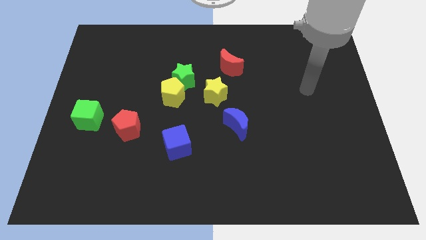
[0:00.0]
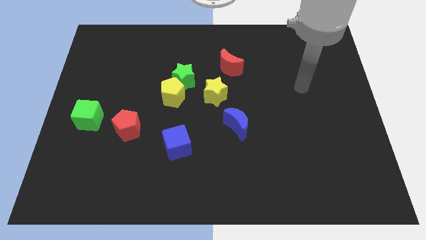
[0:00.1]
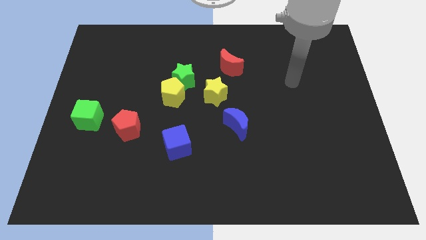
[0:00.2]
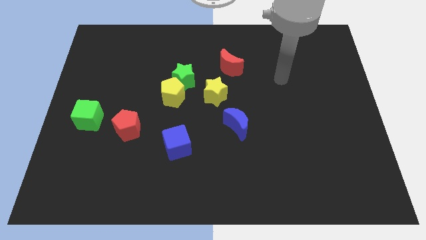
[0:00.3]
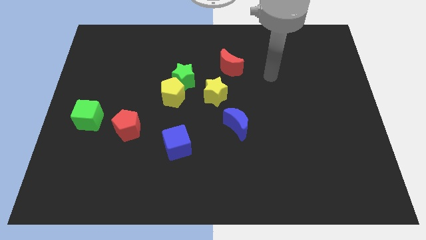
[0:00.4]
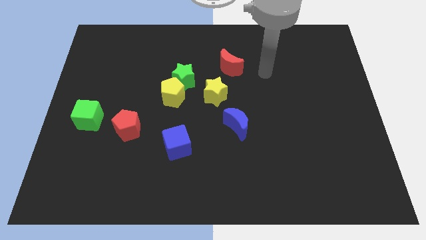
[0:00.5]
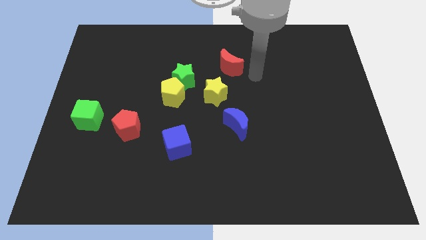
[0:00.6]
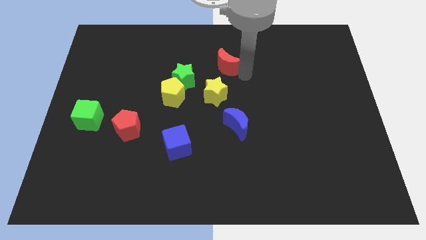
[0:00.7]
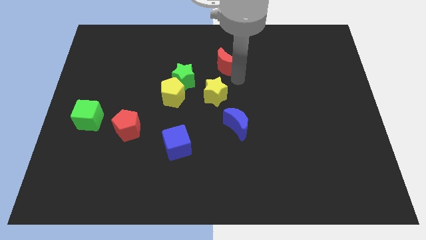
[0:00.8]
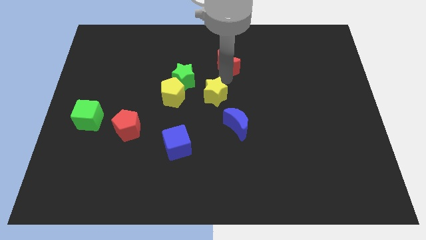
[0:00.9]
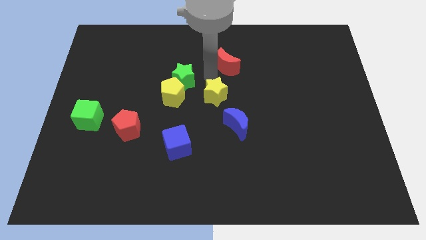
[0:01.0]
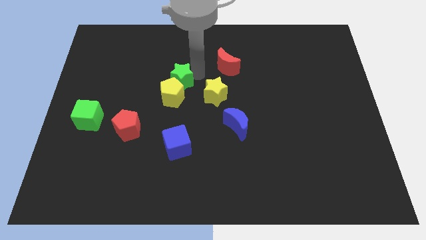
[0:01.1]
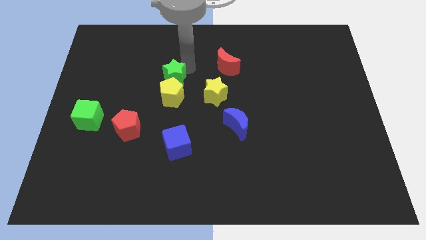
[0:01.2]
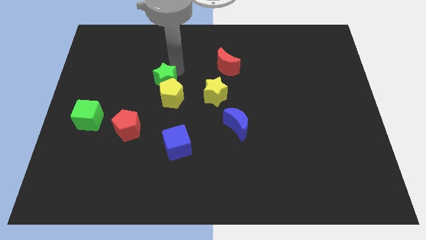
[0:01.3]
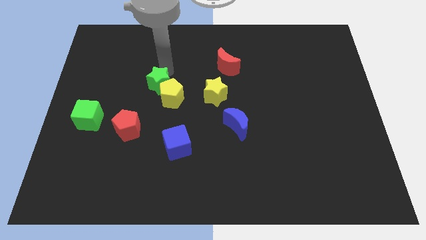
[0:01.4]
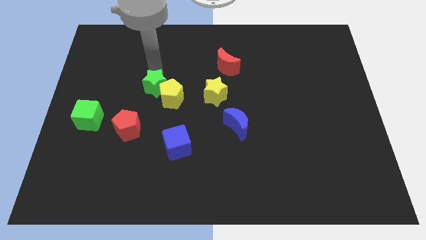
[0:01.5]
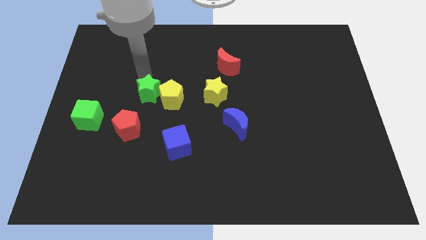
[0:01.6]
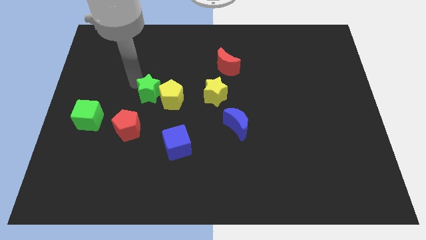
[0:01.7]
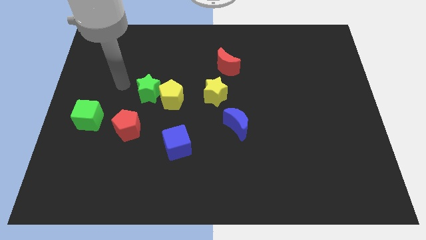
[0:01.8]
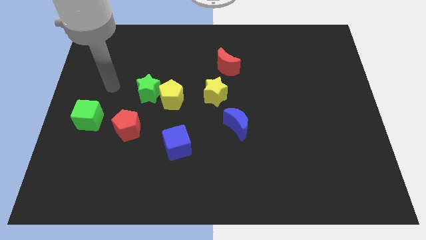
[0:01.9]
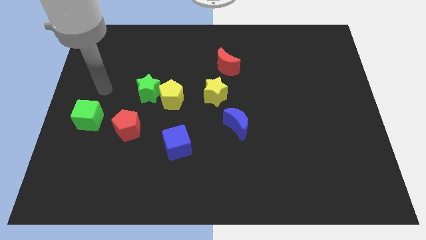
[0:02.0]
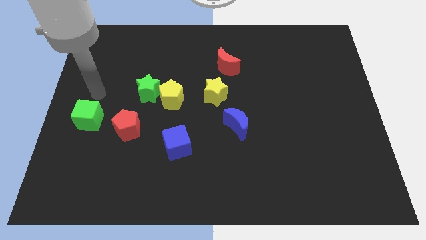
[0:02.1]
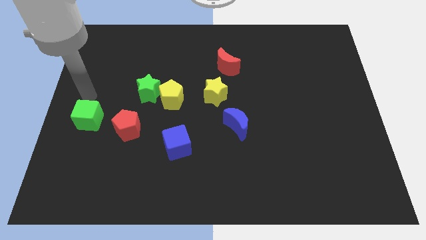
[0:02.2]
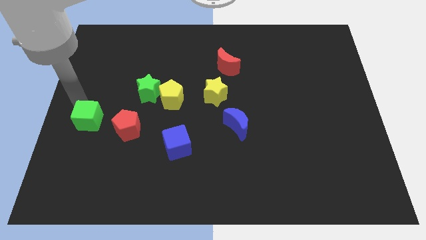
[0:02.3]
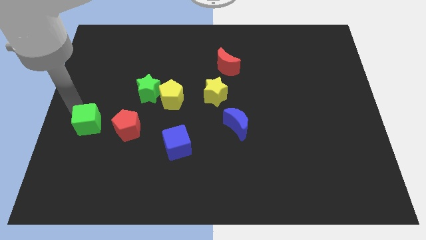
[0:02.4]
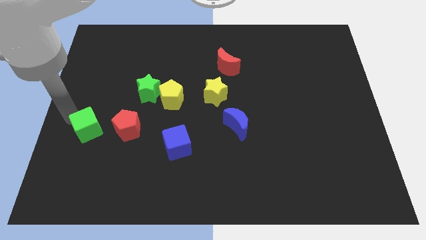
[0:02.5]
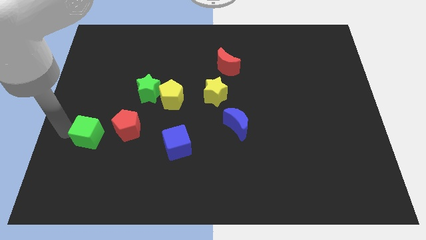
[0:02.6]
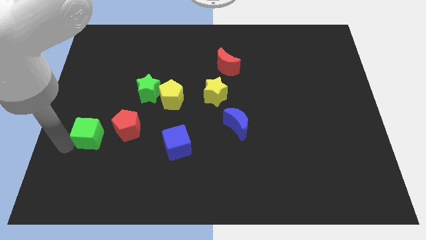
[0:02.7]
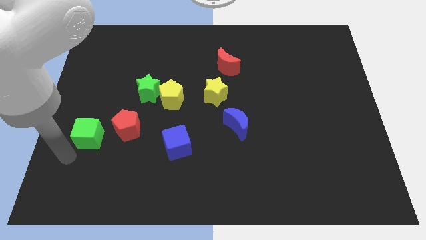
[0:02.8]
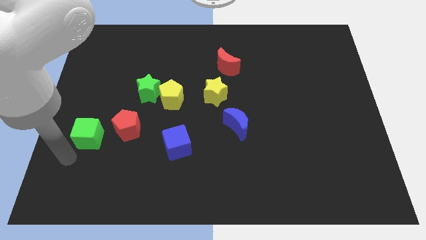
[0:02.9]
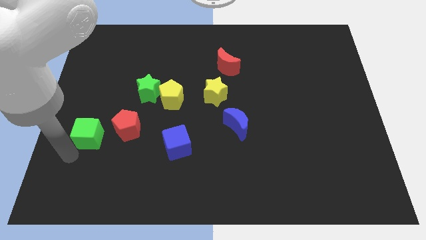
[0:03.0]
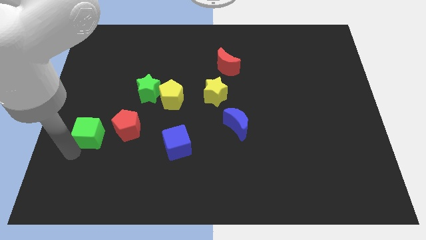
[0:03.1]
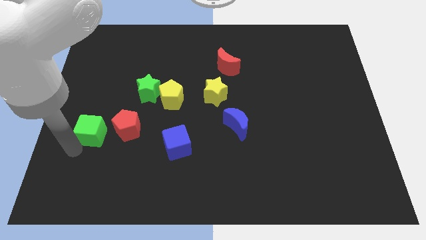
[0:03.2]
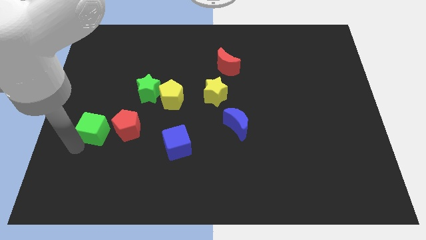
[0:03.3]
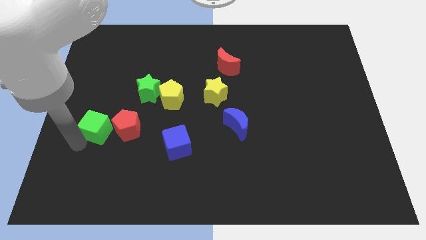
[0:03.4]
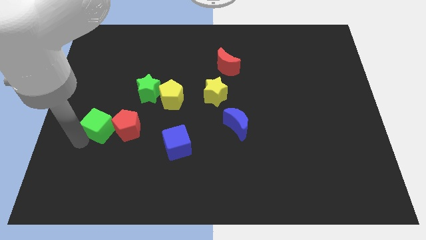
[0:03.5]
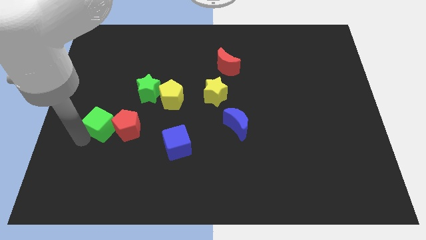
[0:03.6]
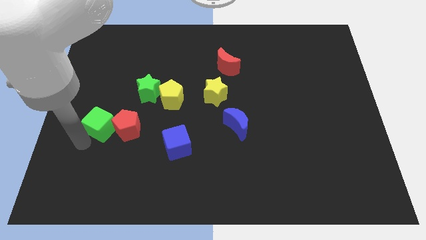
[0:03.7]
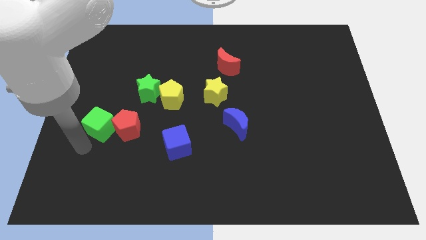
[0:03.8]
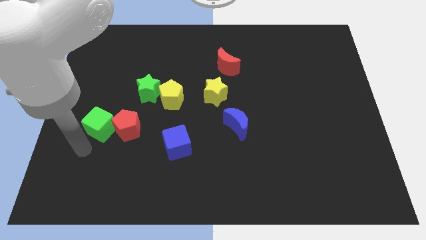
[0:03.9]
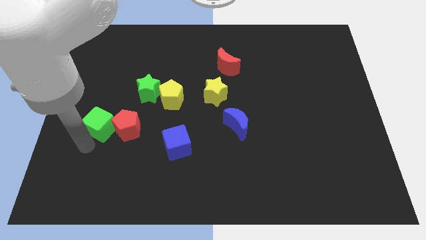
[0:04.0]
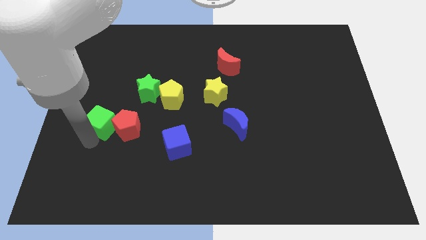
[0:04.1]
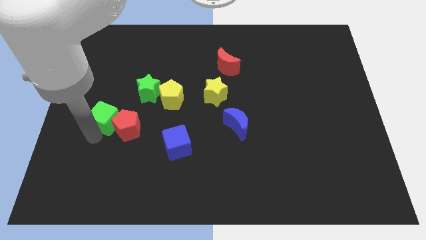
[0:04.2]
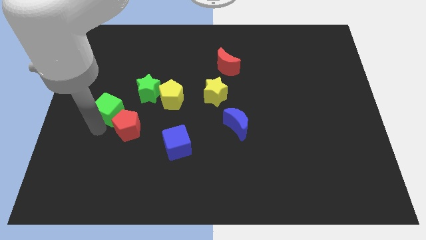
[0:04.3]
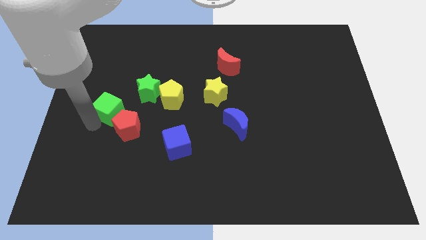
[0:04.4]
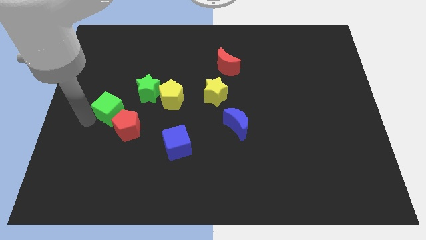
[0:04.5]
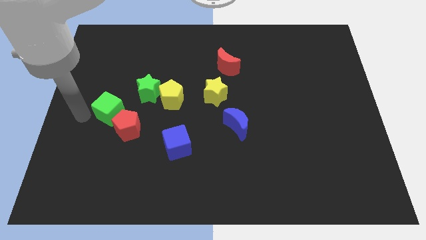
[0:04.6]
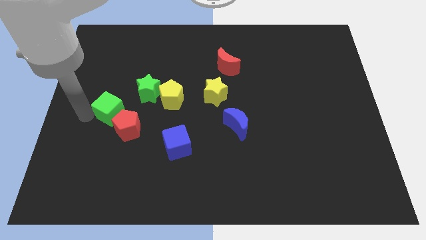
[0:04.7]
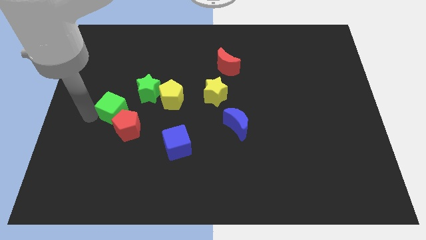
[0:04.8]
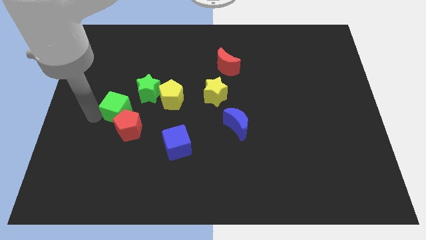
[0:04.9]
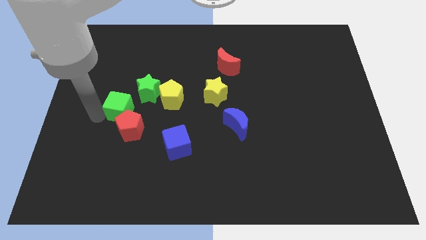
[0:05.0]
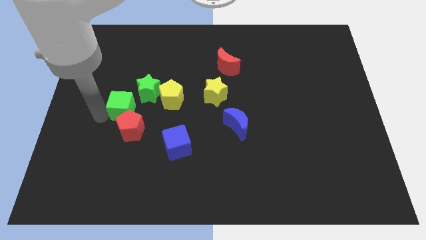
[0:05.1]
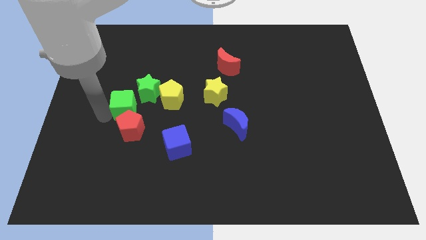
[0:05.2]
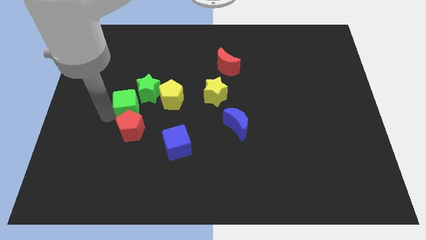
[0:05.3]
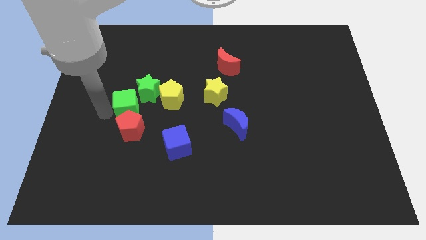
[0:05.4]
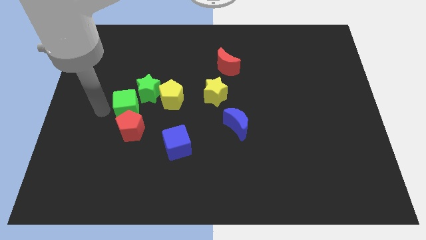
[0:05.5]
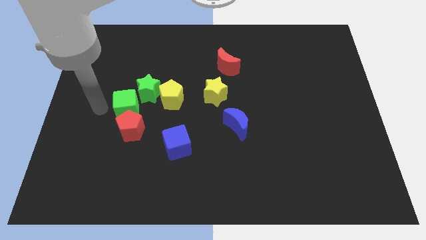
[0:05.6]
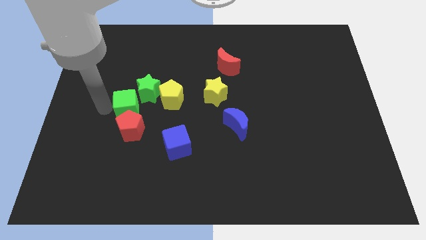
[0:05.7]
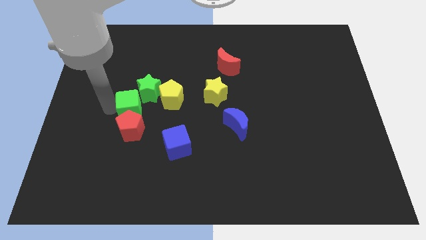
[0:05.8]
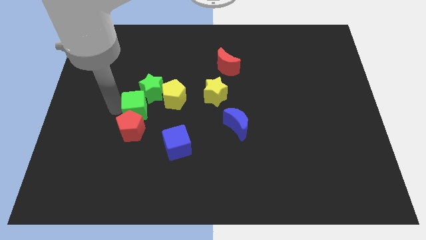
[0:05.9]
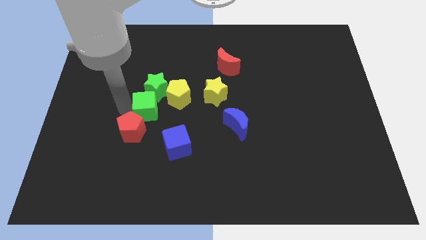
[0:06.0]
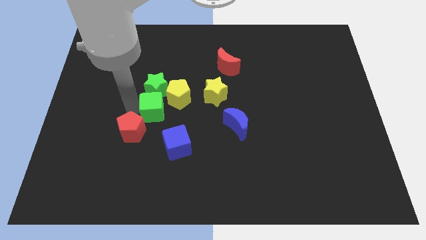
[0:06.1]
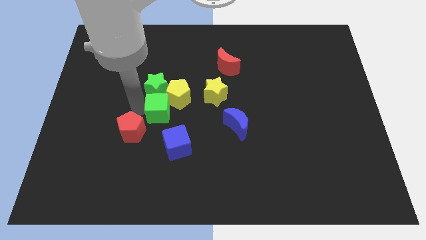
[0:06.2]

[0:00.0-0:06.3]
slide the green cube below the yellow pentagon

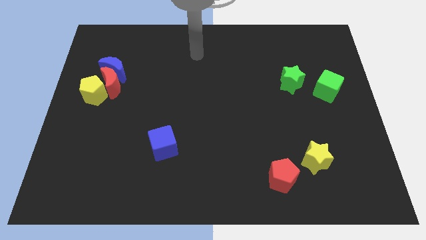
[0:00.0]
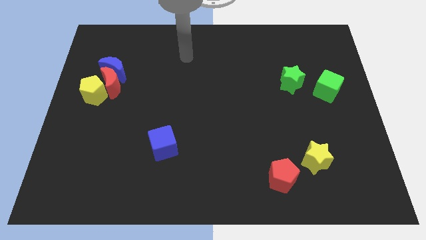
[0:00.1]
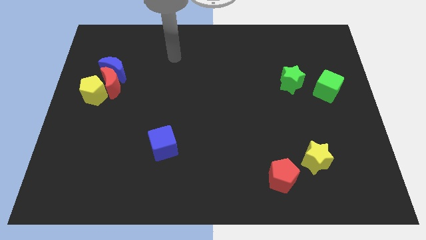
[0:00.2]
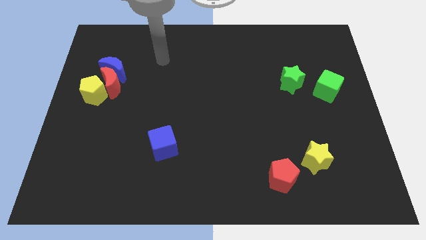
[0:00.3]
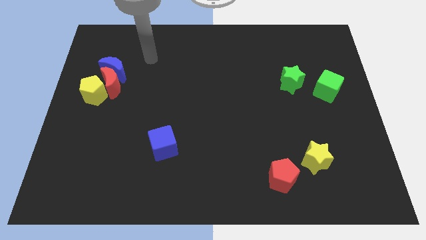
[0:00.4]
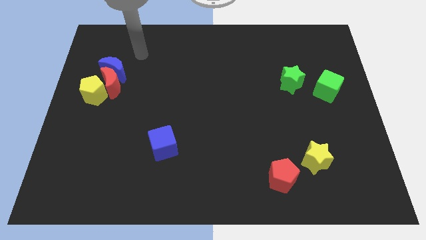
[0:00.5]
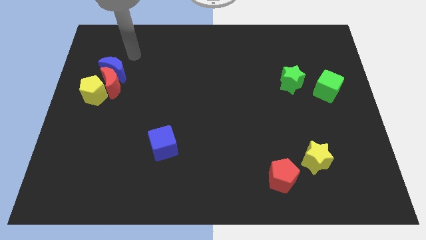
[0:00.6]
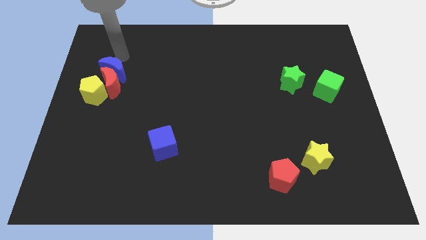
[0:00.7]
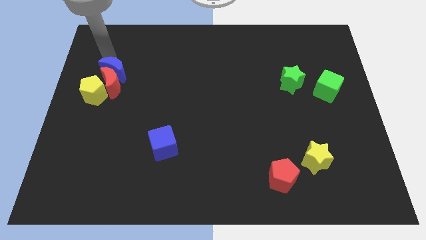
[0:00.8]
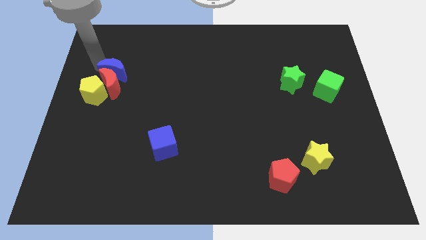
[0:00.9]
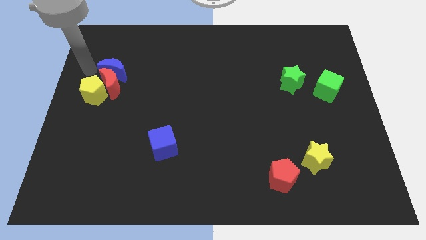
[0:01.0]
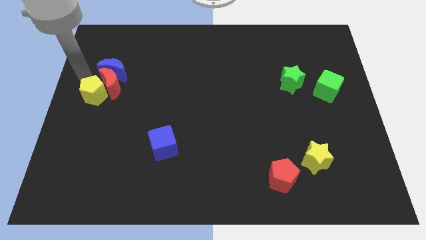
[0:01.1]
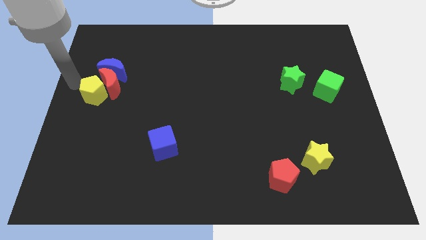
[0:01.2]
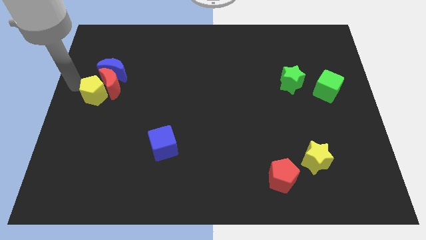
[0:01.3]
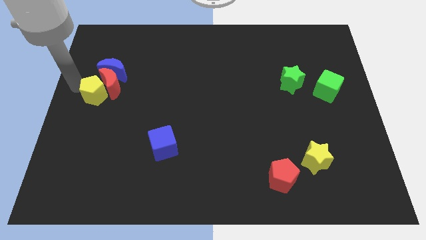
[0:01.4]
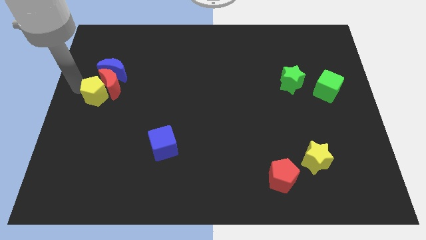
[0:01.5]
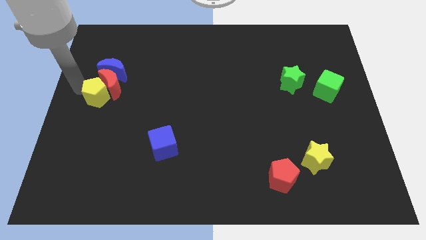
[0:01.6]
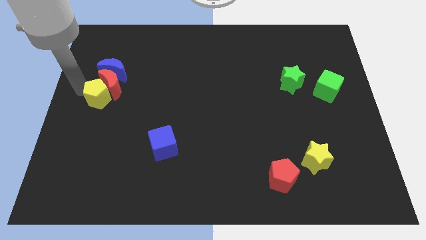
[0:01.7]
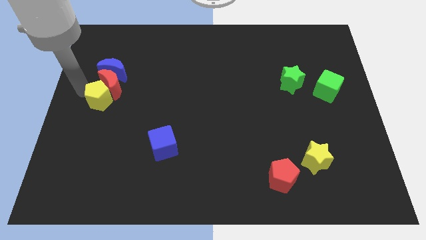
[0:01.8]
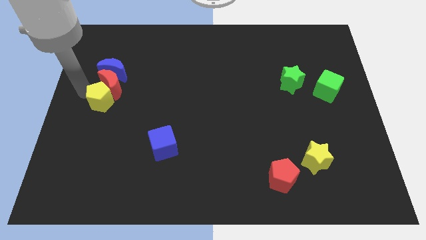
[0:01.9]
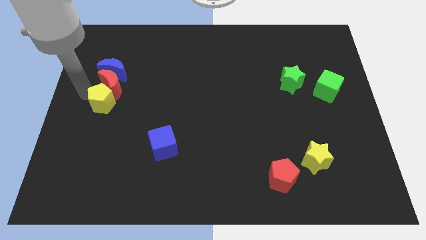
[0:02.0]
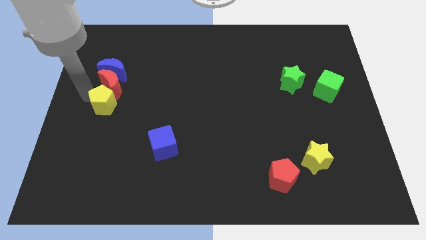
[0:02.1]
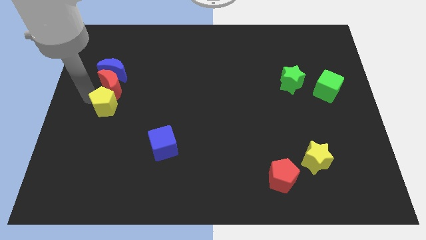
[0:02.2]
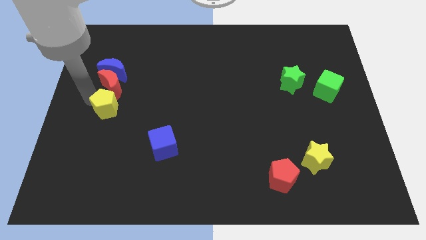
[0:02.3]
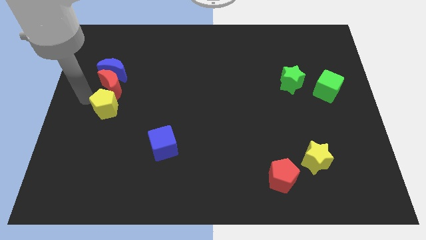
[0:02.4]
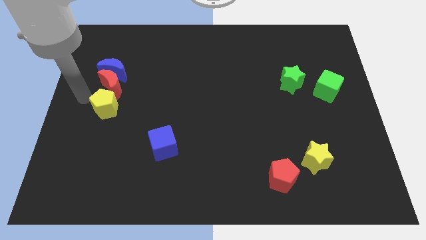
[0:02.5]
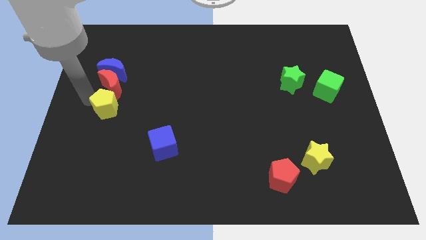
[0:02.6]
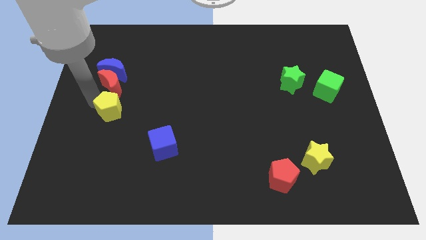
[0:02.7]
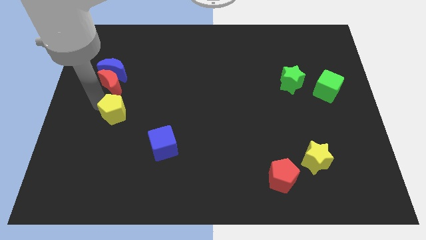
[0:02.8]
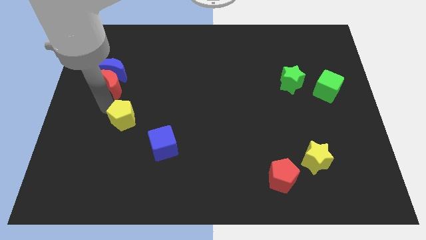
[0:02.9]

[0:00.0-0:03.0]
put the yellow pentagon diagonally up and to the left of the blue cube
